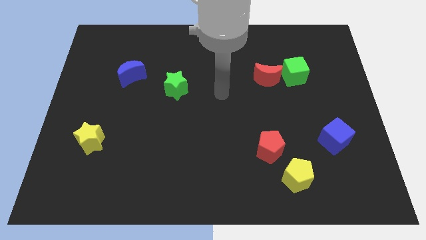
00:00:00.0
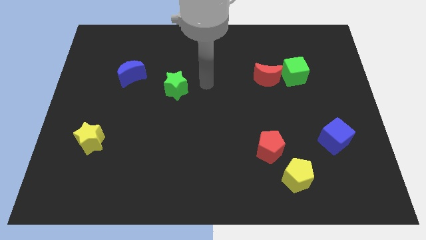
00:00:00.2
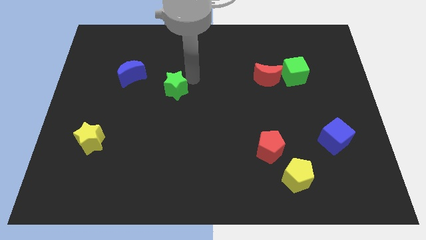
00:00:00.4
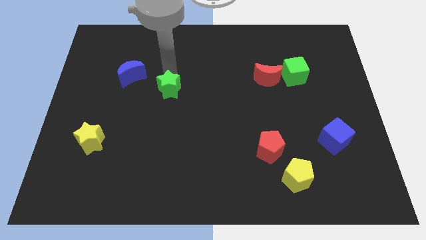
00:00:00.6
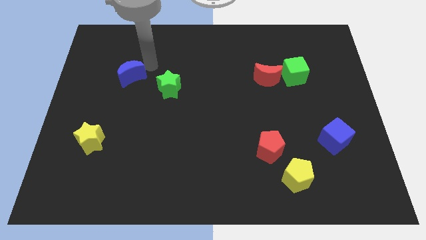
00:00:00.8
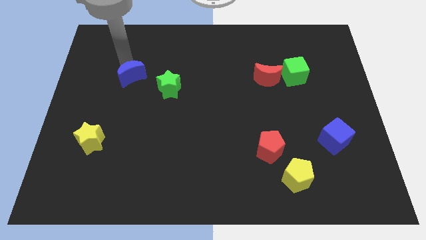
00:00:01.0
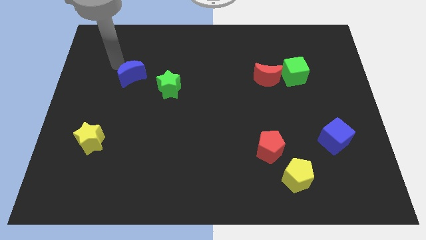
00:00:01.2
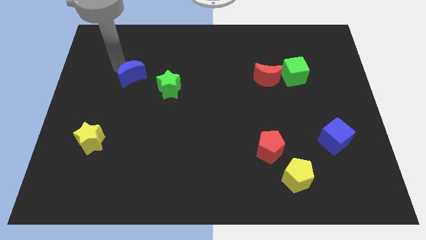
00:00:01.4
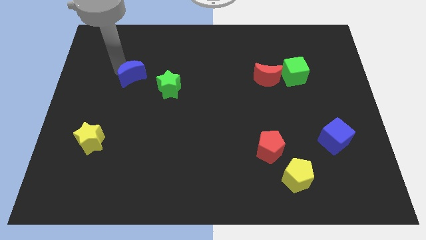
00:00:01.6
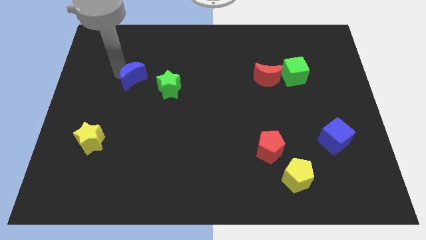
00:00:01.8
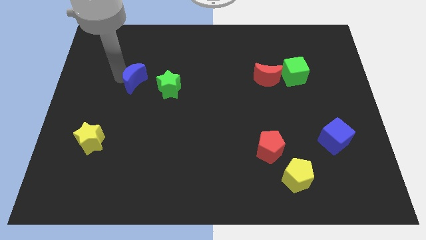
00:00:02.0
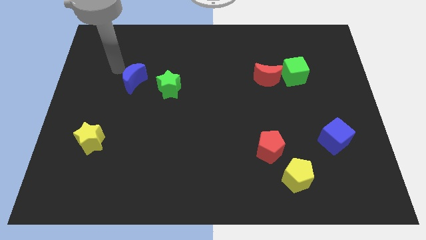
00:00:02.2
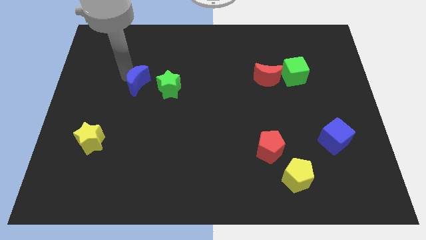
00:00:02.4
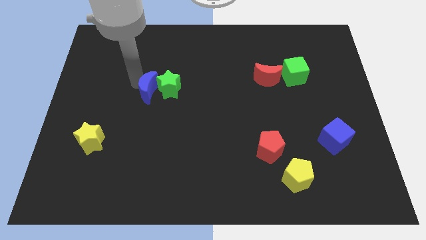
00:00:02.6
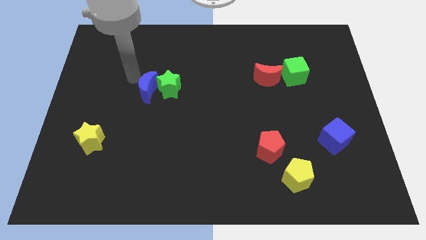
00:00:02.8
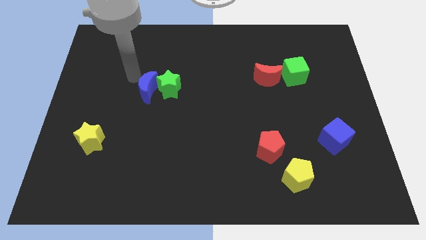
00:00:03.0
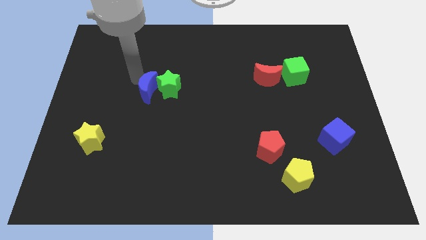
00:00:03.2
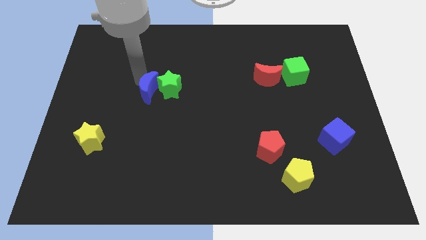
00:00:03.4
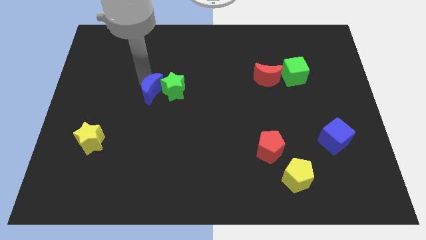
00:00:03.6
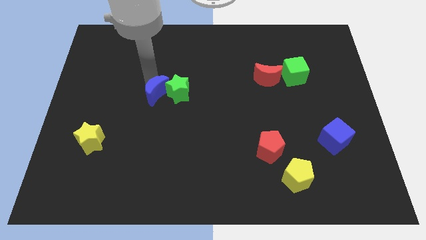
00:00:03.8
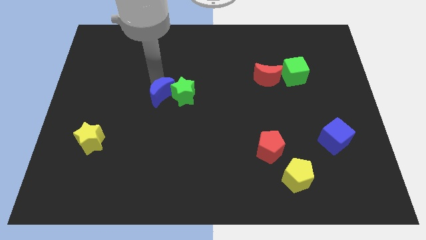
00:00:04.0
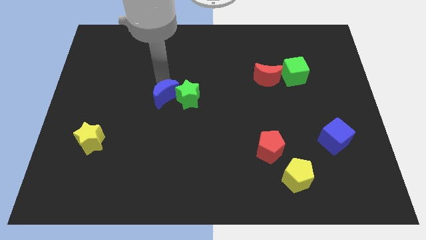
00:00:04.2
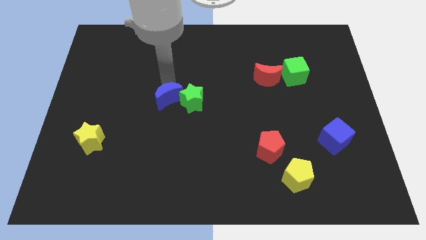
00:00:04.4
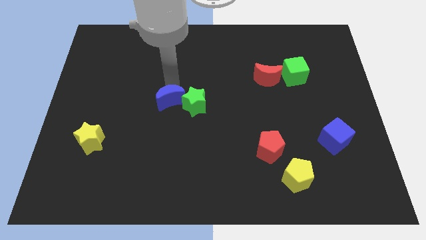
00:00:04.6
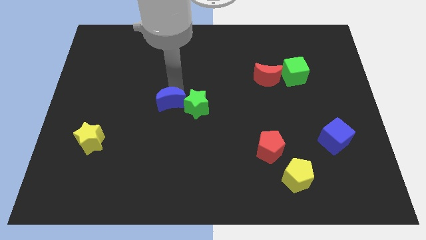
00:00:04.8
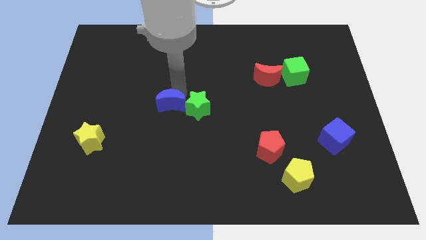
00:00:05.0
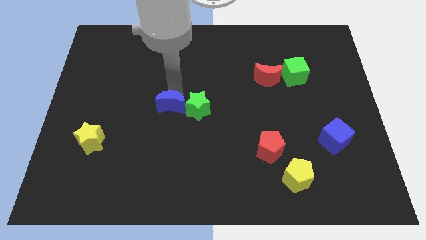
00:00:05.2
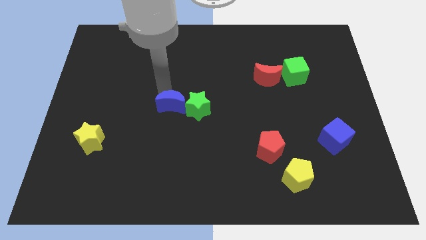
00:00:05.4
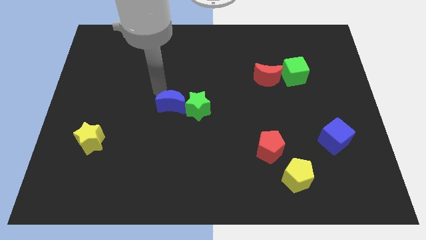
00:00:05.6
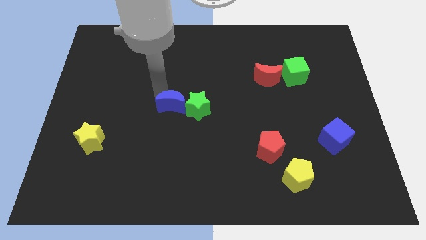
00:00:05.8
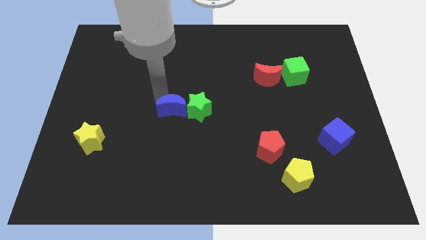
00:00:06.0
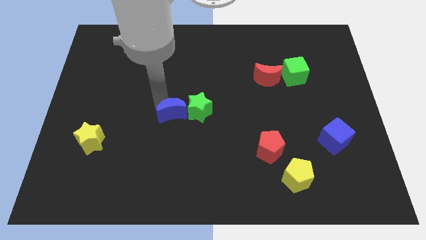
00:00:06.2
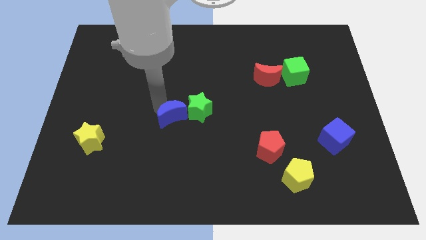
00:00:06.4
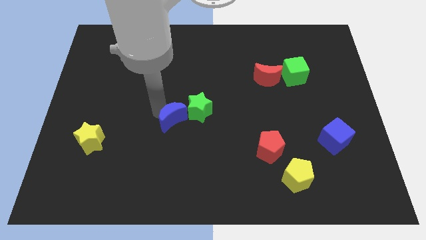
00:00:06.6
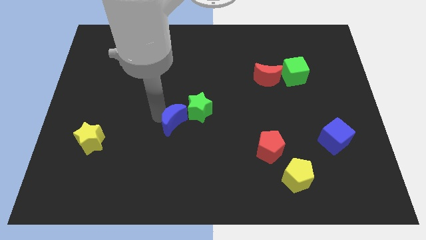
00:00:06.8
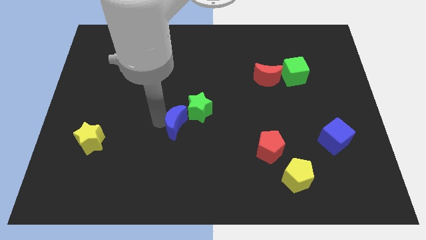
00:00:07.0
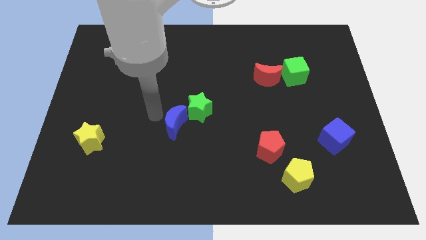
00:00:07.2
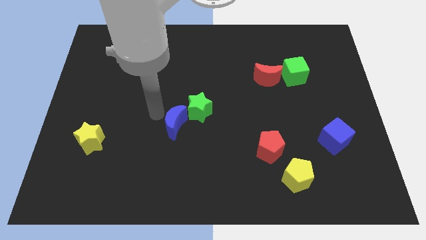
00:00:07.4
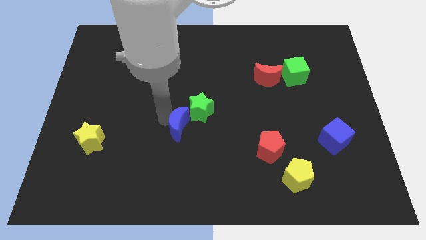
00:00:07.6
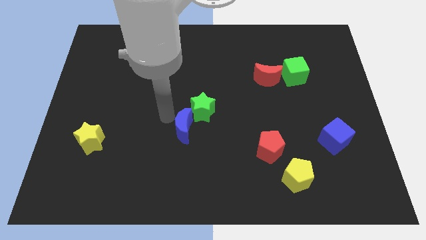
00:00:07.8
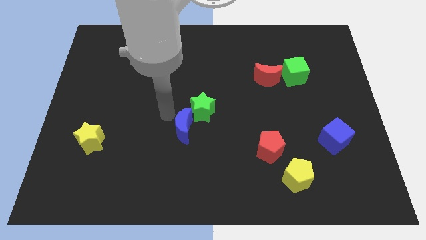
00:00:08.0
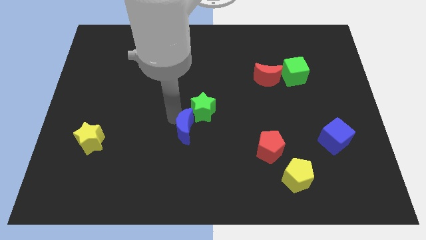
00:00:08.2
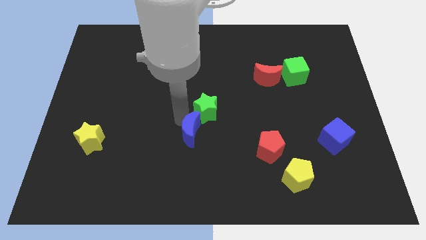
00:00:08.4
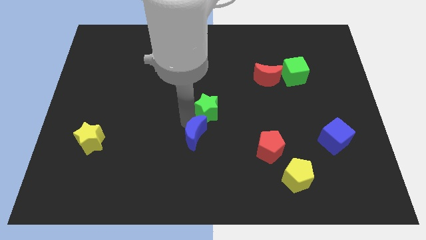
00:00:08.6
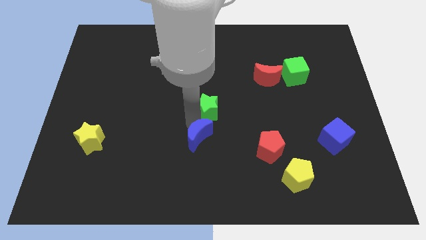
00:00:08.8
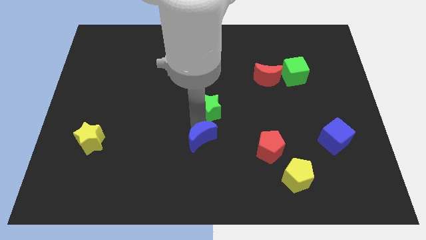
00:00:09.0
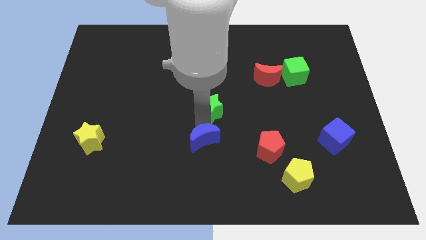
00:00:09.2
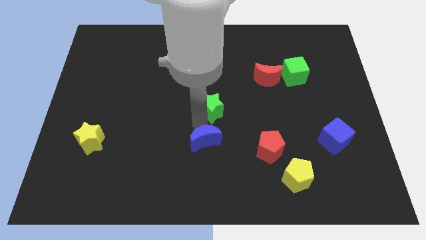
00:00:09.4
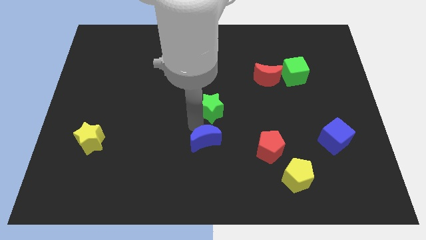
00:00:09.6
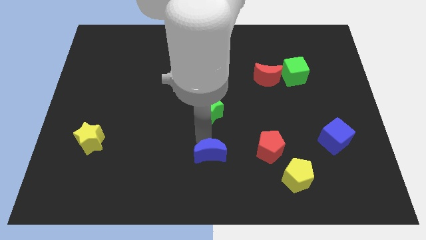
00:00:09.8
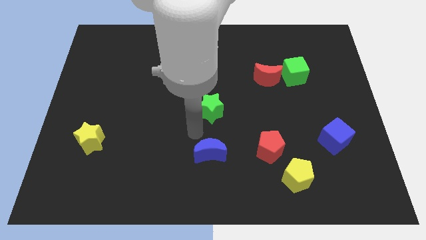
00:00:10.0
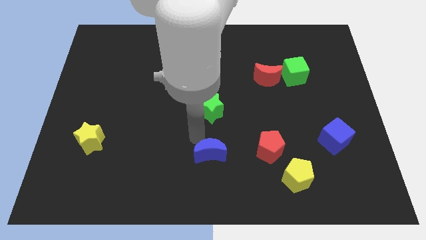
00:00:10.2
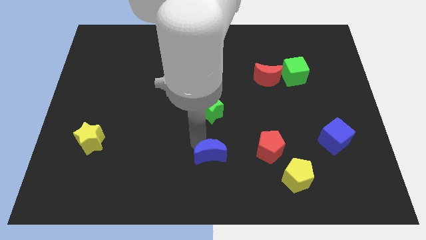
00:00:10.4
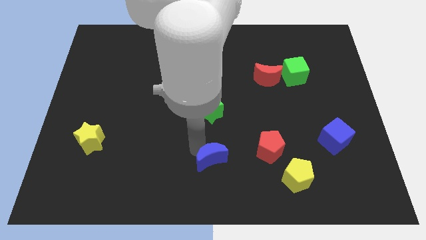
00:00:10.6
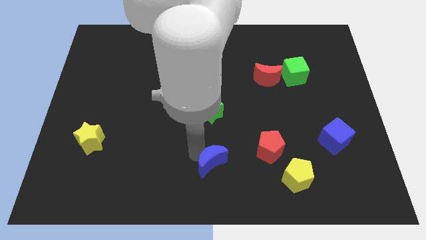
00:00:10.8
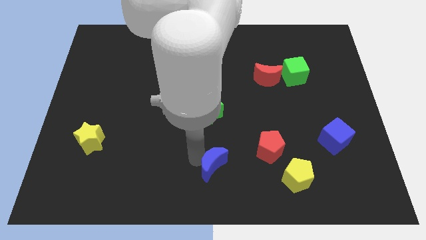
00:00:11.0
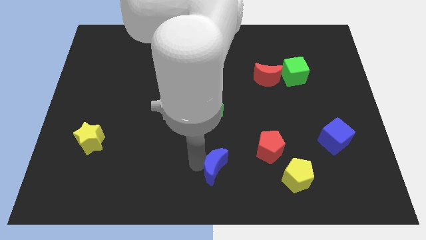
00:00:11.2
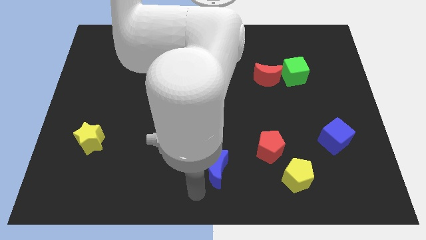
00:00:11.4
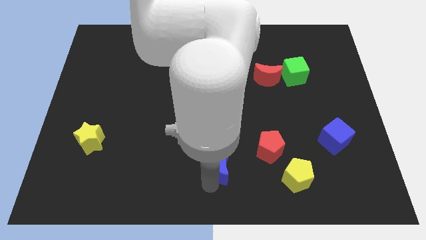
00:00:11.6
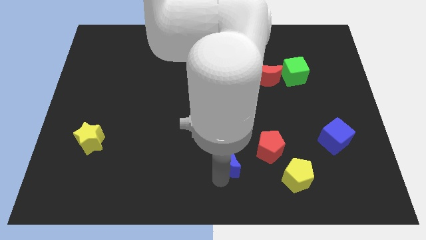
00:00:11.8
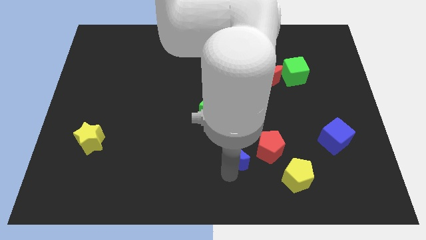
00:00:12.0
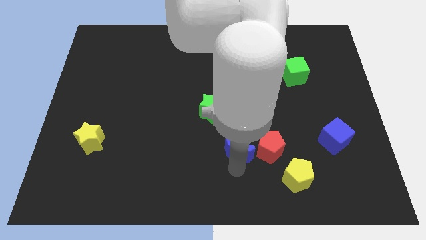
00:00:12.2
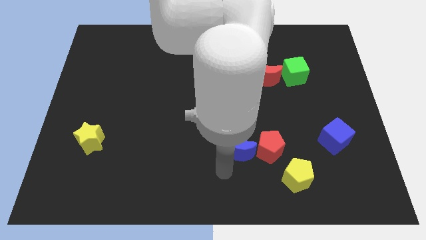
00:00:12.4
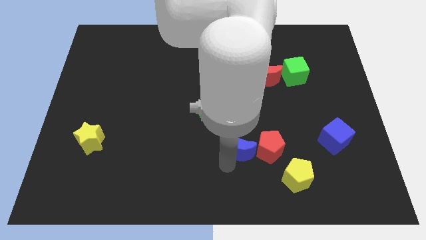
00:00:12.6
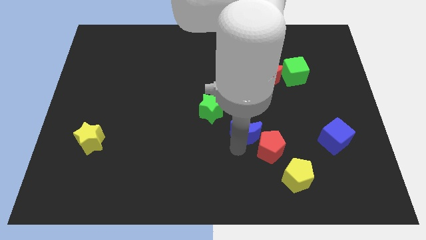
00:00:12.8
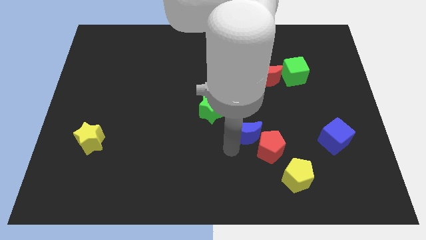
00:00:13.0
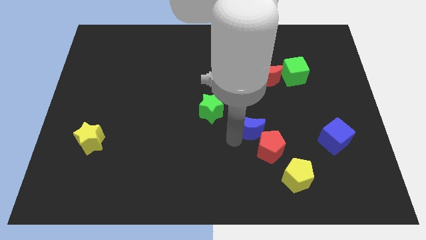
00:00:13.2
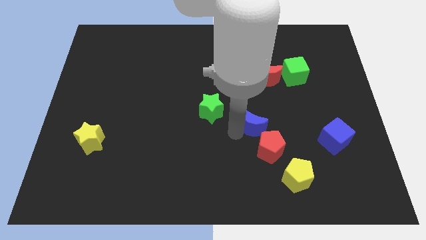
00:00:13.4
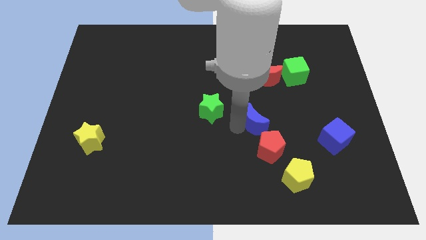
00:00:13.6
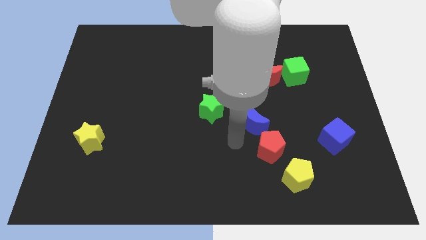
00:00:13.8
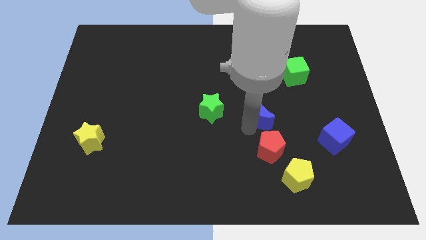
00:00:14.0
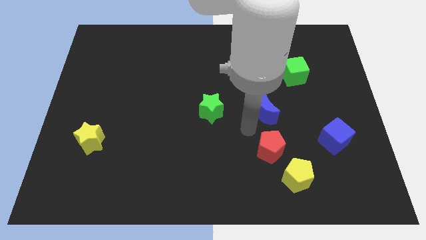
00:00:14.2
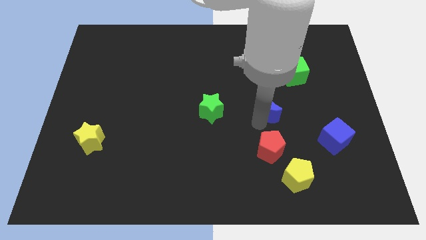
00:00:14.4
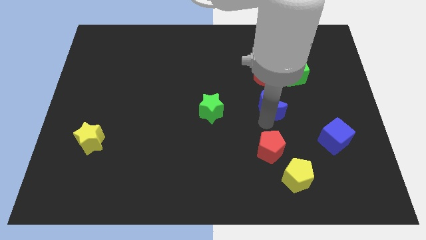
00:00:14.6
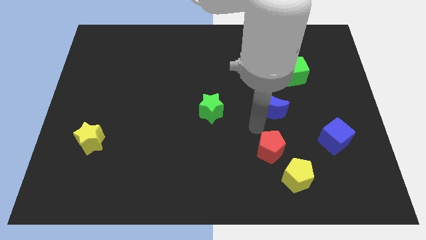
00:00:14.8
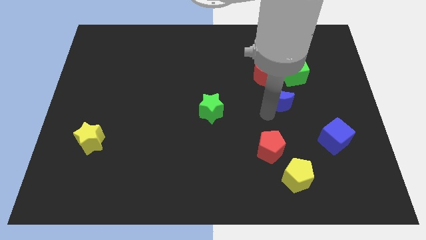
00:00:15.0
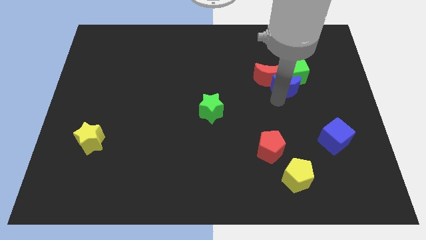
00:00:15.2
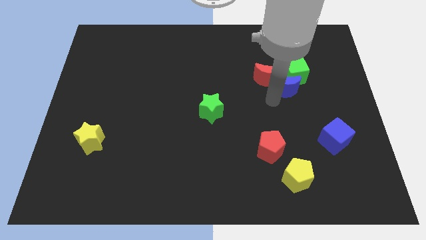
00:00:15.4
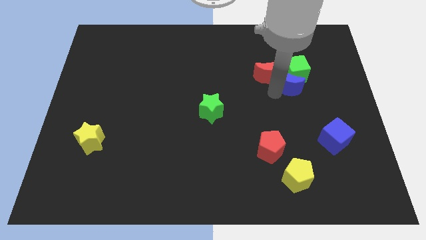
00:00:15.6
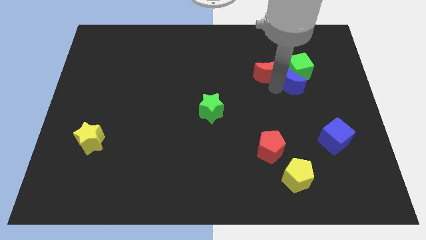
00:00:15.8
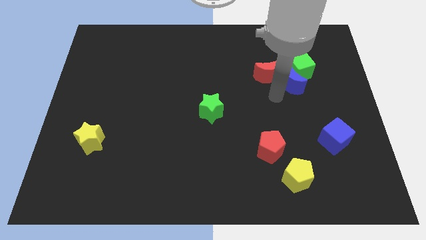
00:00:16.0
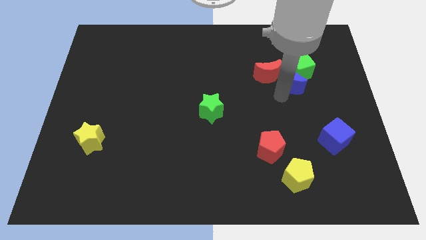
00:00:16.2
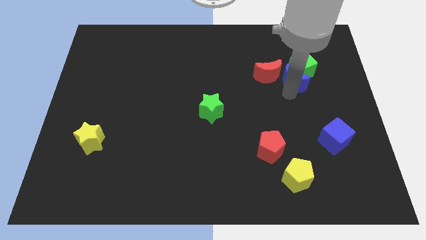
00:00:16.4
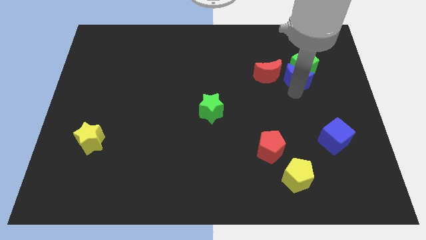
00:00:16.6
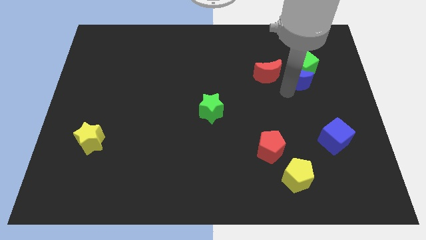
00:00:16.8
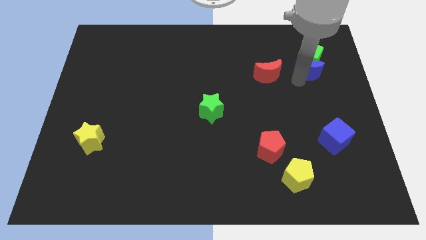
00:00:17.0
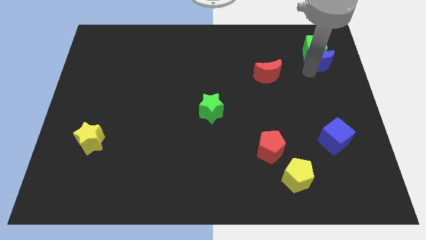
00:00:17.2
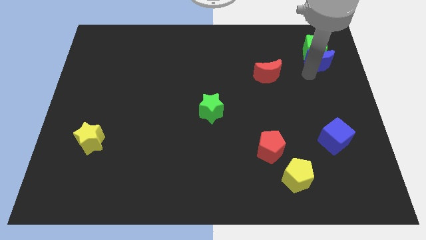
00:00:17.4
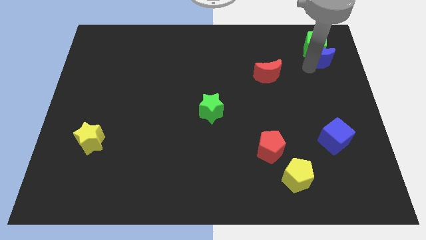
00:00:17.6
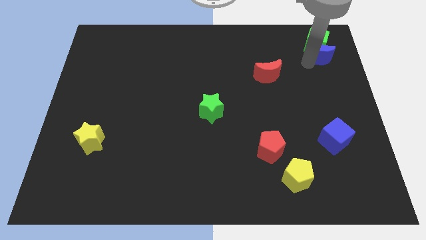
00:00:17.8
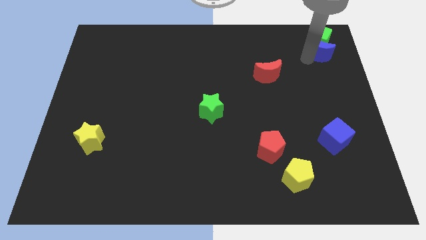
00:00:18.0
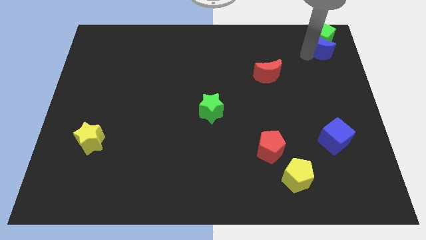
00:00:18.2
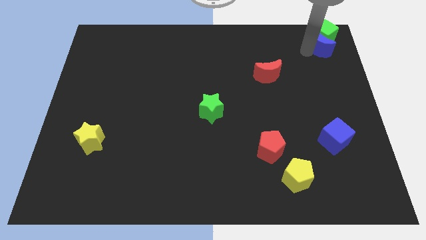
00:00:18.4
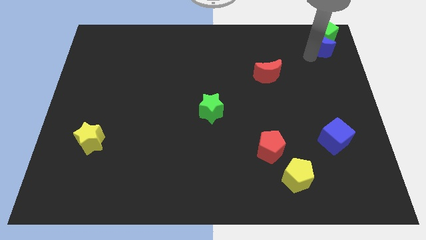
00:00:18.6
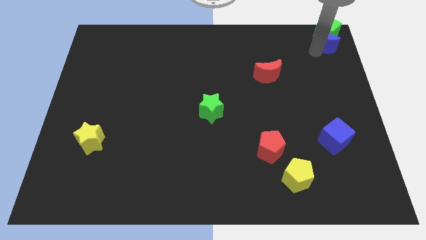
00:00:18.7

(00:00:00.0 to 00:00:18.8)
move the blue moon to the top right of the board
